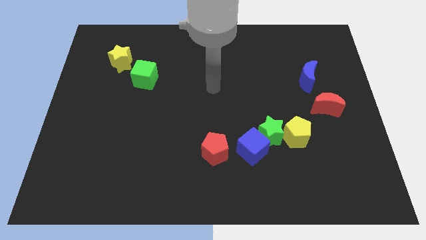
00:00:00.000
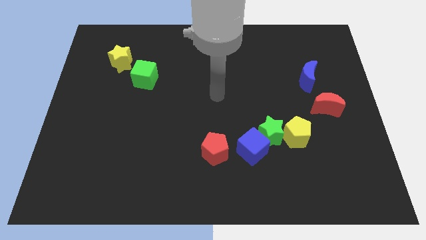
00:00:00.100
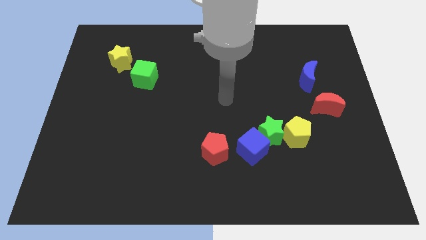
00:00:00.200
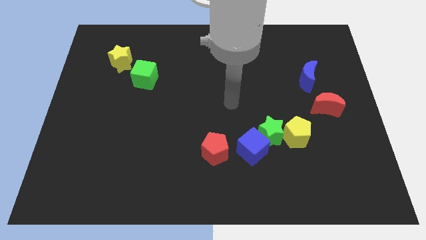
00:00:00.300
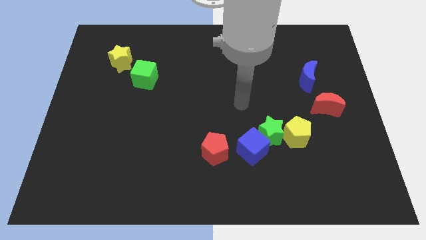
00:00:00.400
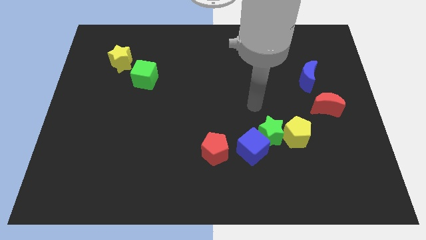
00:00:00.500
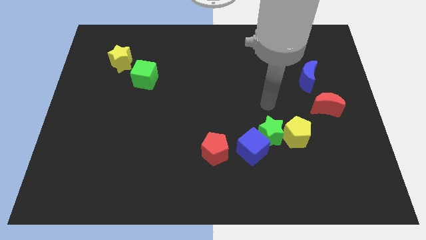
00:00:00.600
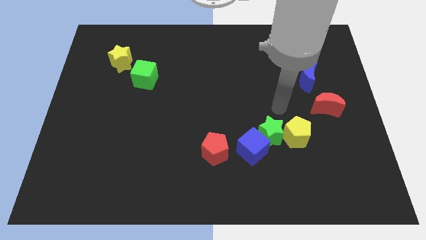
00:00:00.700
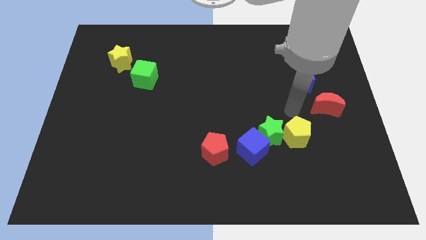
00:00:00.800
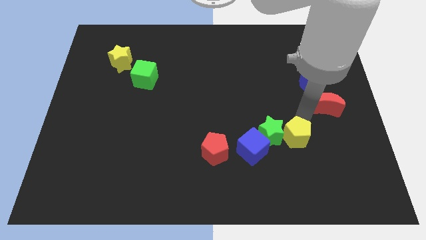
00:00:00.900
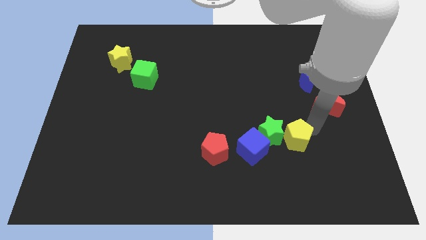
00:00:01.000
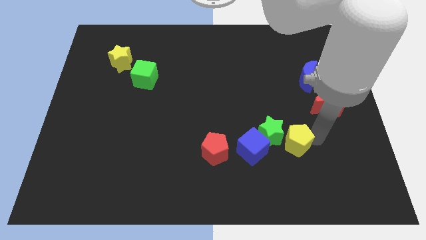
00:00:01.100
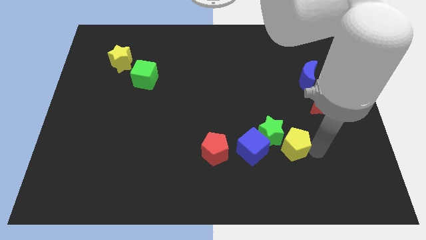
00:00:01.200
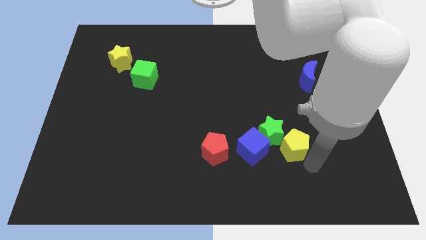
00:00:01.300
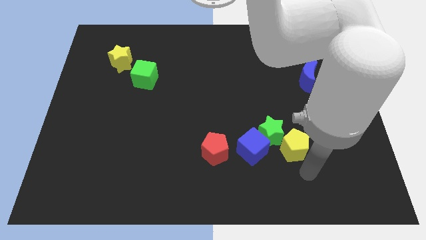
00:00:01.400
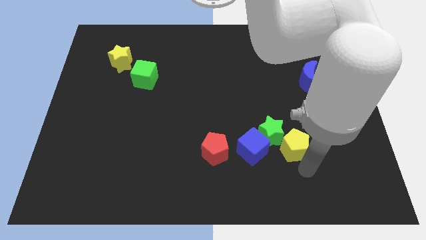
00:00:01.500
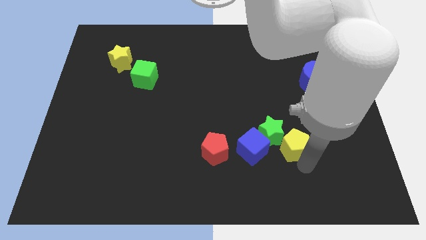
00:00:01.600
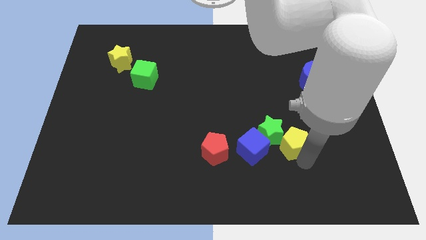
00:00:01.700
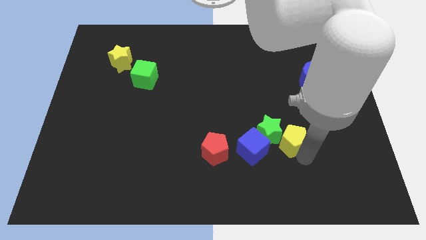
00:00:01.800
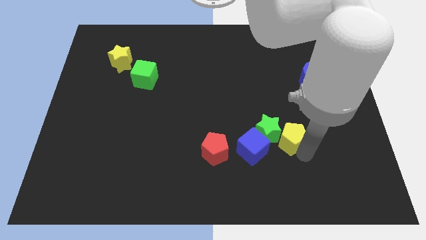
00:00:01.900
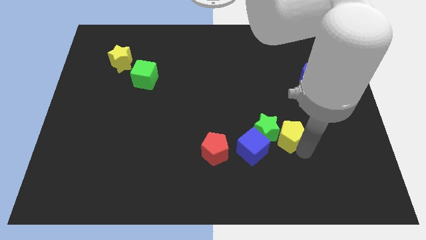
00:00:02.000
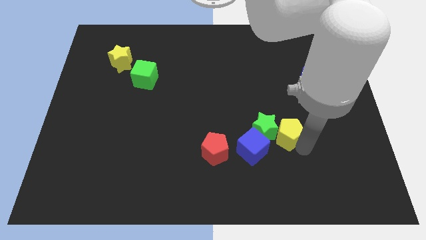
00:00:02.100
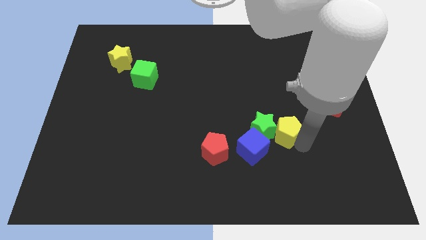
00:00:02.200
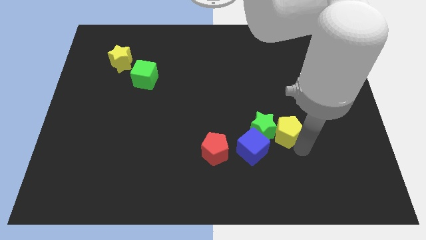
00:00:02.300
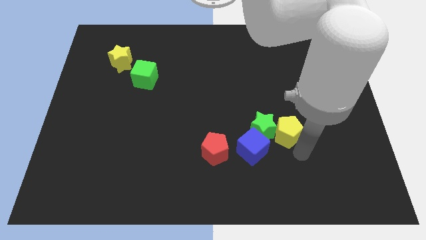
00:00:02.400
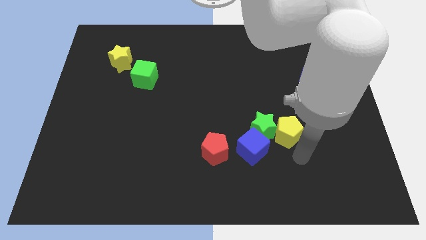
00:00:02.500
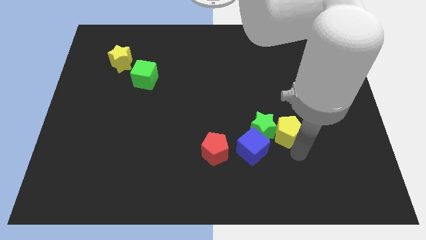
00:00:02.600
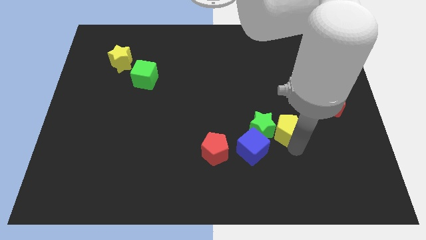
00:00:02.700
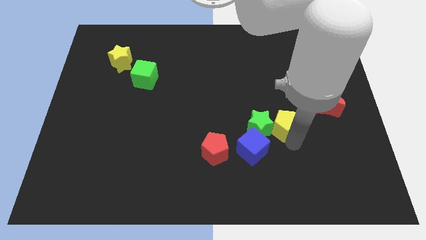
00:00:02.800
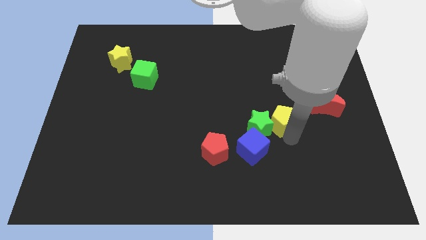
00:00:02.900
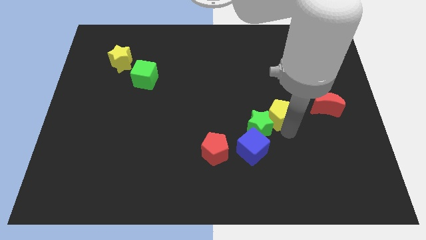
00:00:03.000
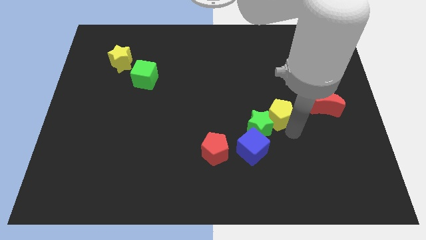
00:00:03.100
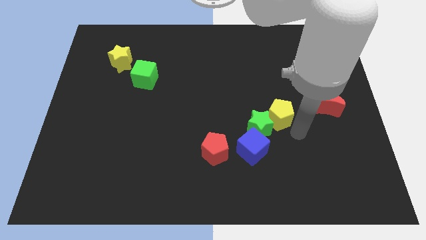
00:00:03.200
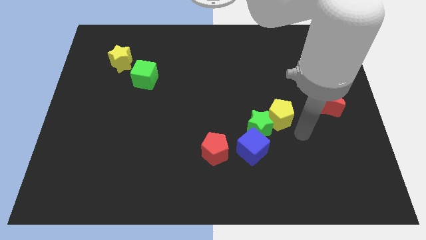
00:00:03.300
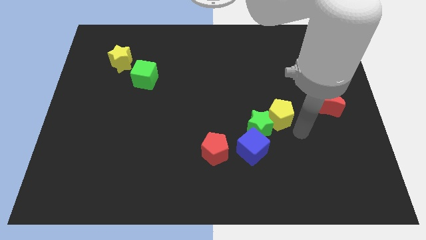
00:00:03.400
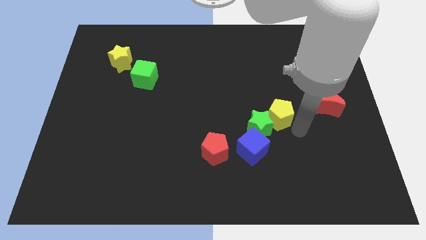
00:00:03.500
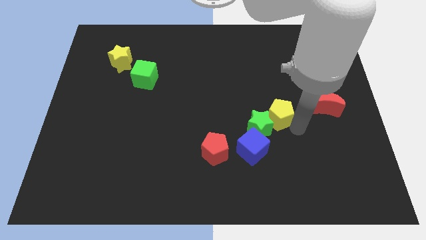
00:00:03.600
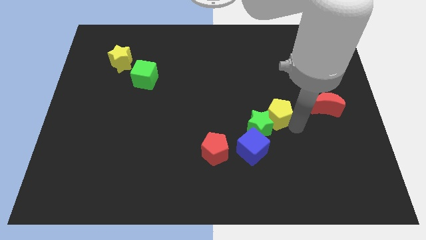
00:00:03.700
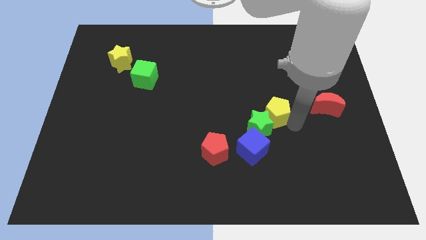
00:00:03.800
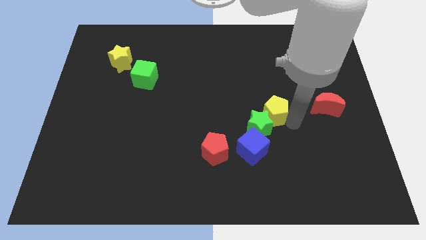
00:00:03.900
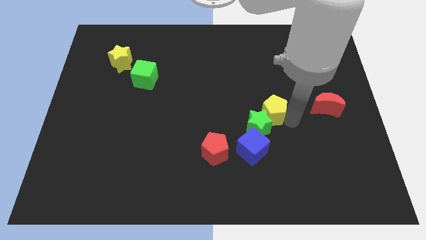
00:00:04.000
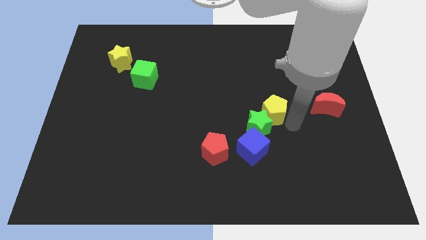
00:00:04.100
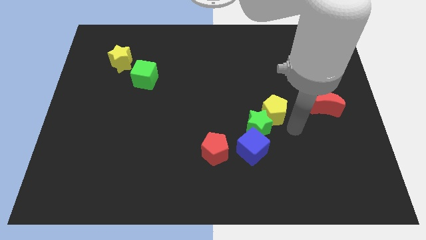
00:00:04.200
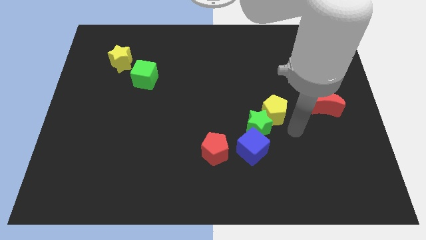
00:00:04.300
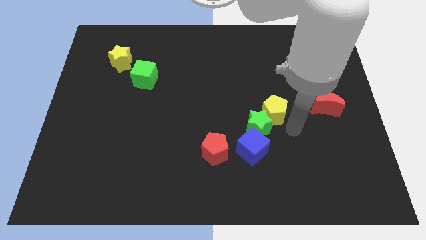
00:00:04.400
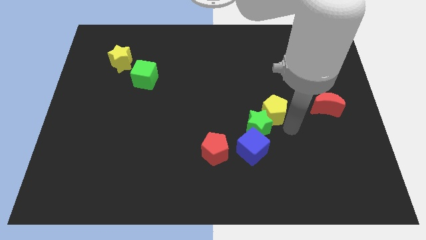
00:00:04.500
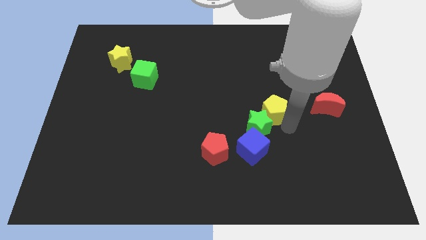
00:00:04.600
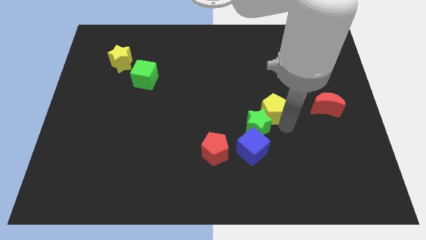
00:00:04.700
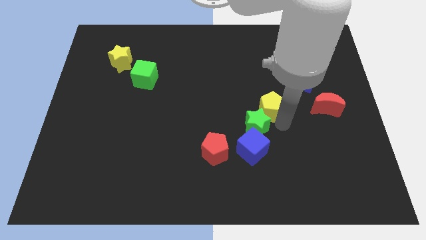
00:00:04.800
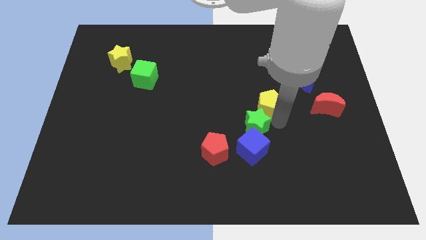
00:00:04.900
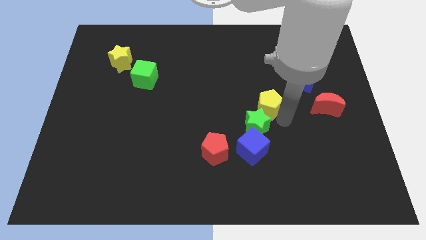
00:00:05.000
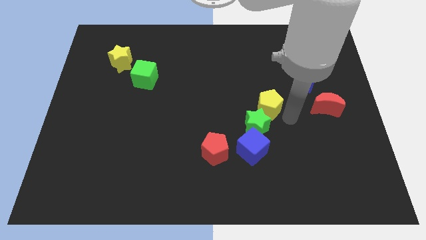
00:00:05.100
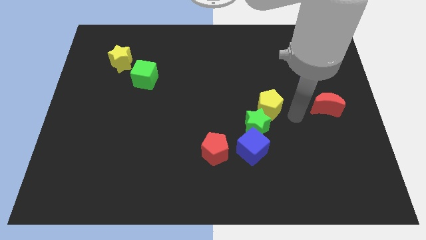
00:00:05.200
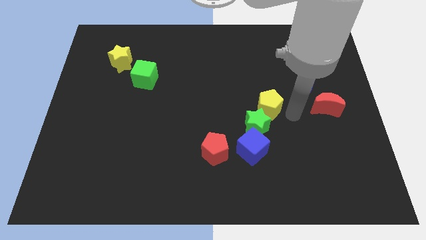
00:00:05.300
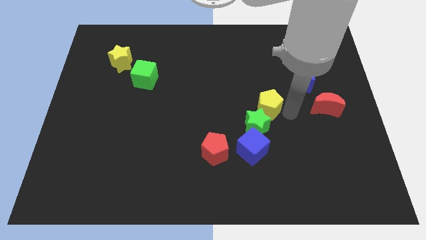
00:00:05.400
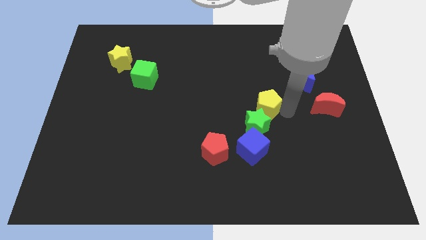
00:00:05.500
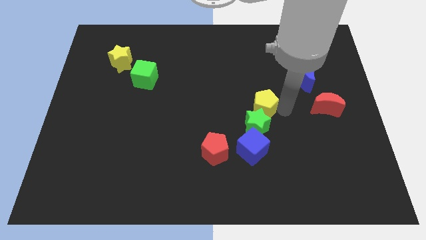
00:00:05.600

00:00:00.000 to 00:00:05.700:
move the yellow pentagon to the middle of the board
